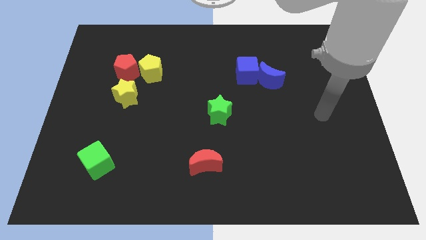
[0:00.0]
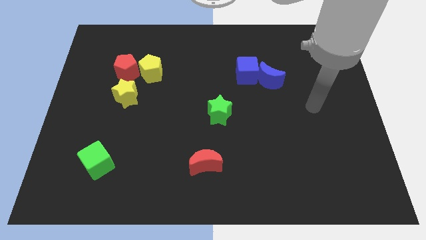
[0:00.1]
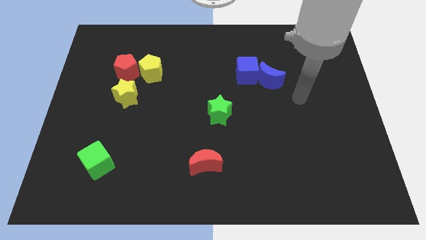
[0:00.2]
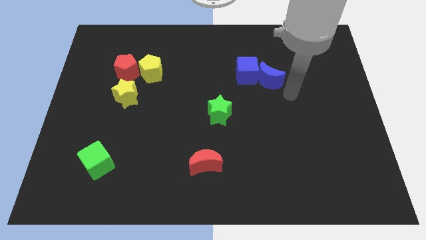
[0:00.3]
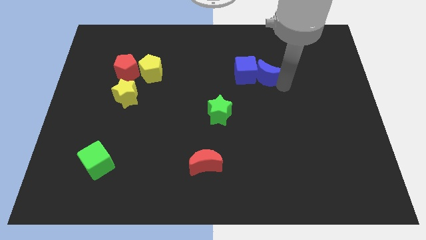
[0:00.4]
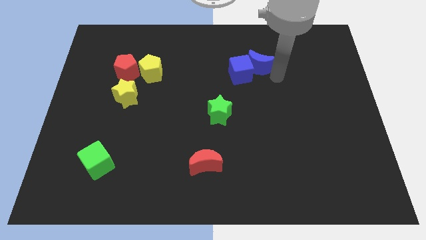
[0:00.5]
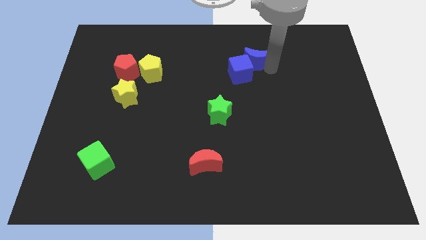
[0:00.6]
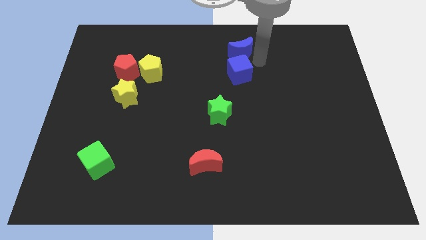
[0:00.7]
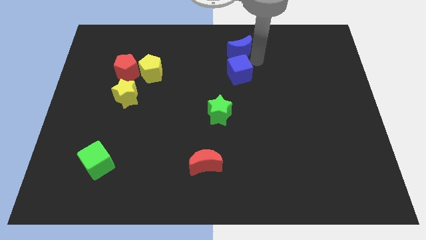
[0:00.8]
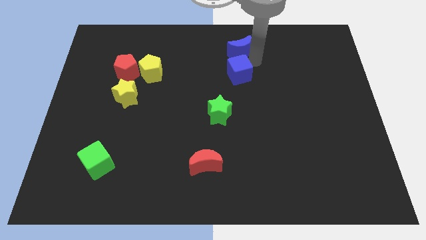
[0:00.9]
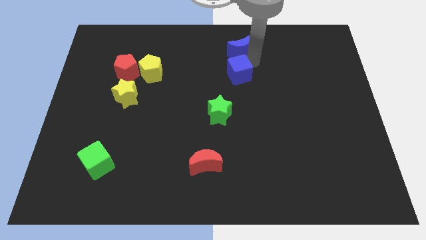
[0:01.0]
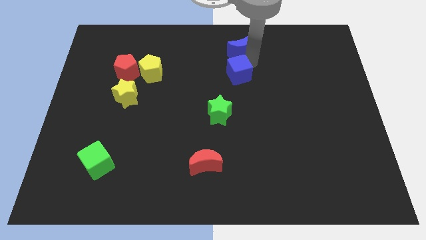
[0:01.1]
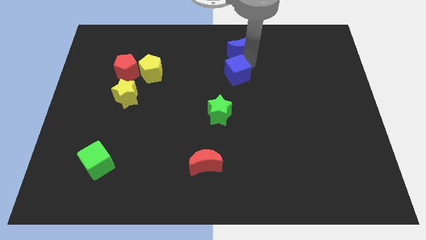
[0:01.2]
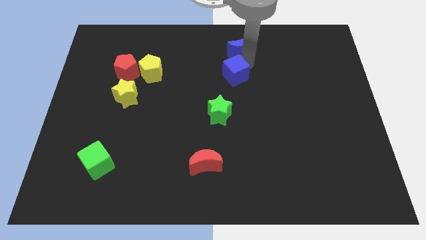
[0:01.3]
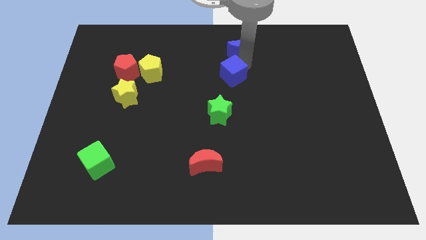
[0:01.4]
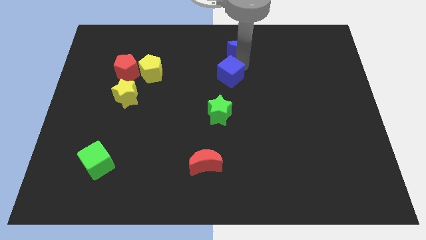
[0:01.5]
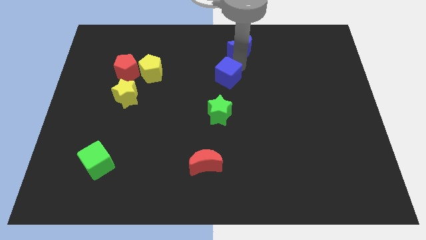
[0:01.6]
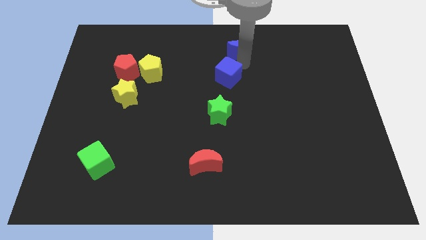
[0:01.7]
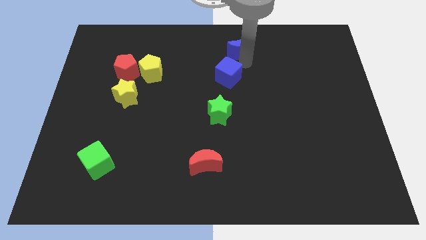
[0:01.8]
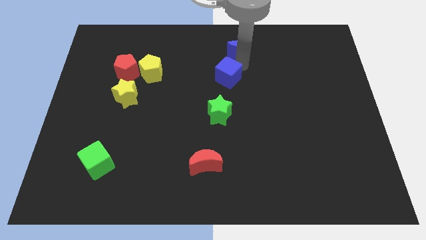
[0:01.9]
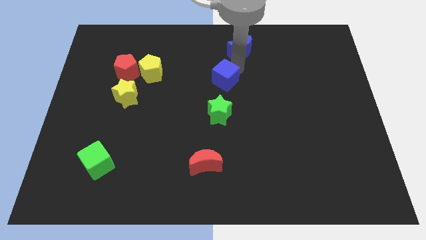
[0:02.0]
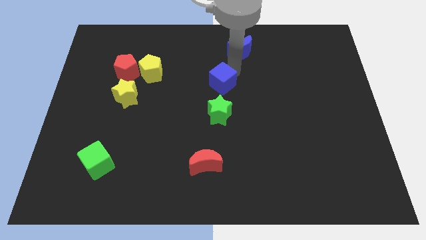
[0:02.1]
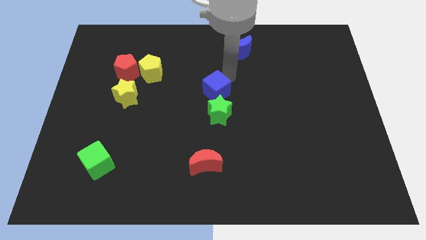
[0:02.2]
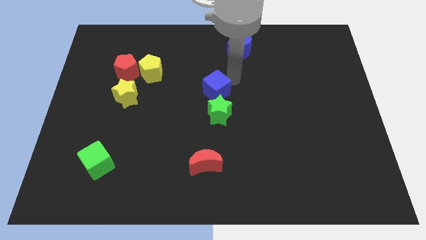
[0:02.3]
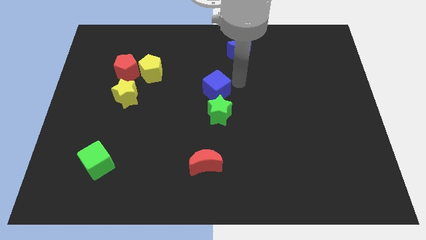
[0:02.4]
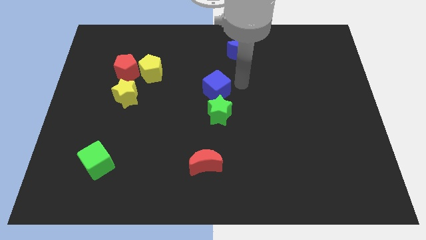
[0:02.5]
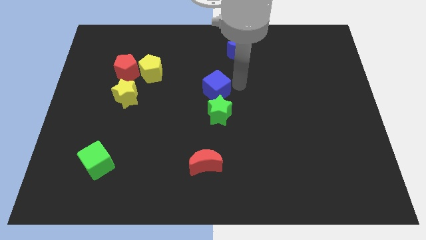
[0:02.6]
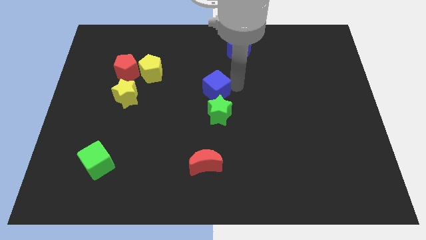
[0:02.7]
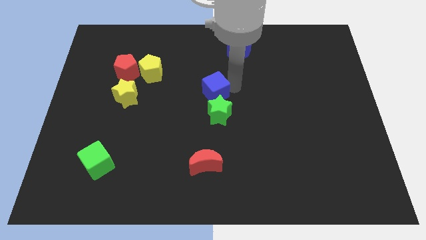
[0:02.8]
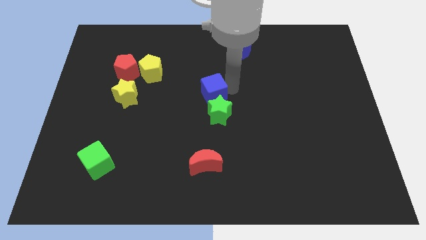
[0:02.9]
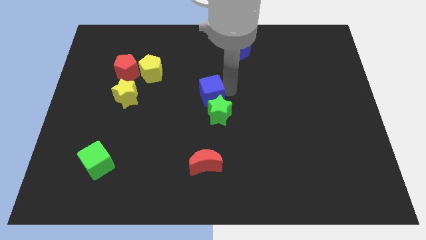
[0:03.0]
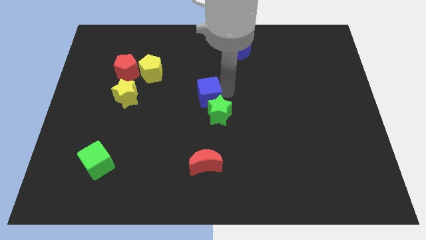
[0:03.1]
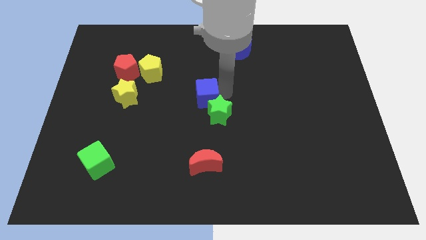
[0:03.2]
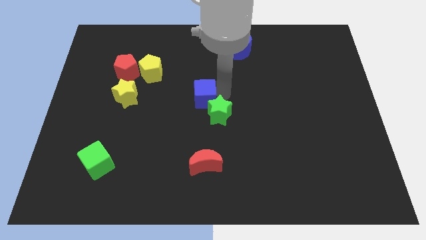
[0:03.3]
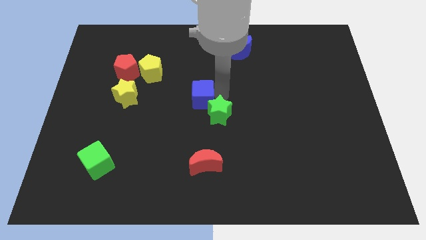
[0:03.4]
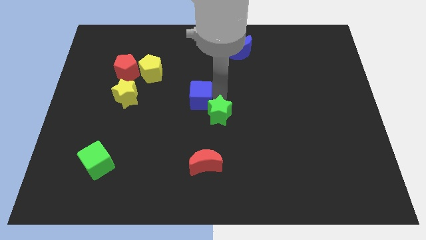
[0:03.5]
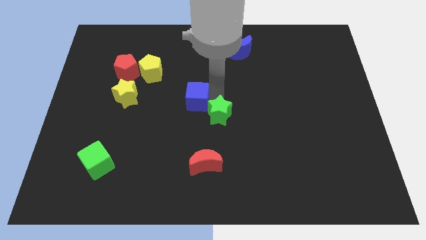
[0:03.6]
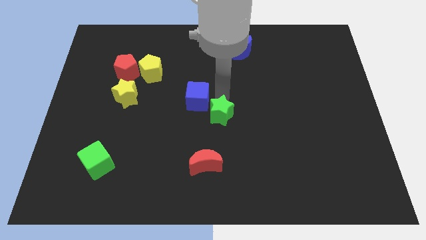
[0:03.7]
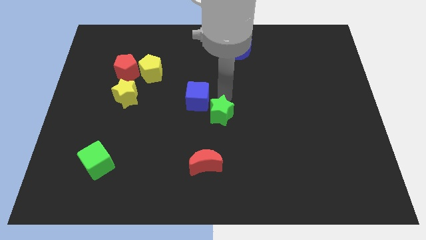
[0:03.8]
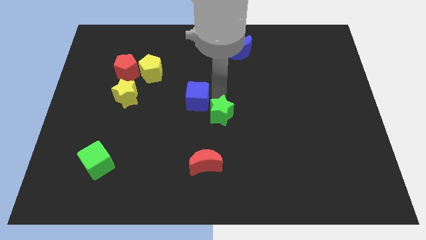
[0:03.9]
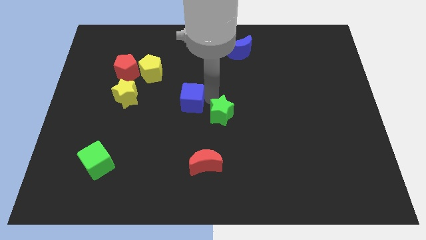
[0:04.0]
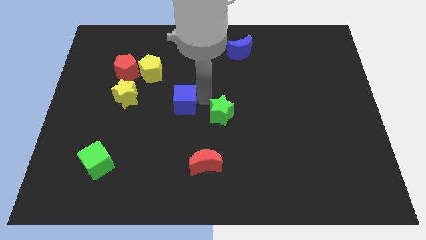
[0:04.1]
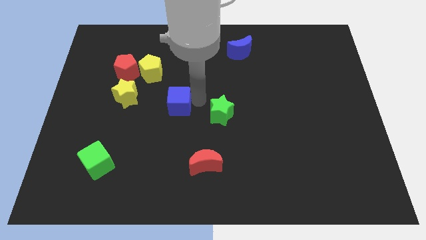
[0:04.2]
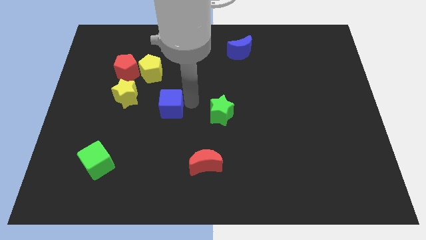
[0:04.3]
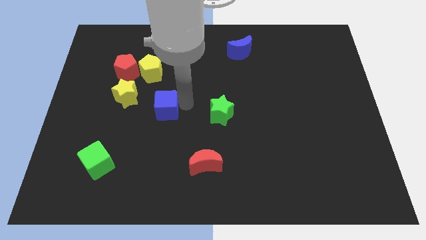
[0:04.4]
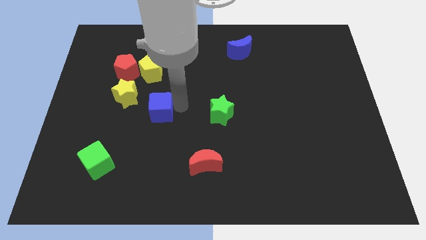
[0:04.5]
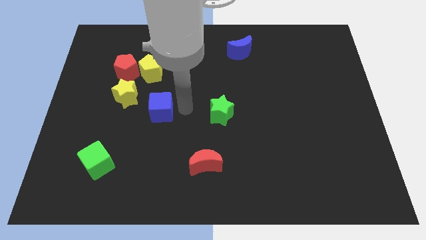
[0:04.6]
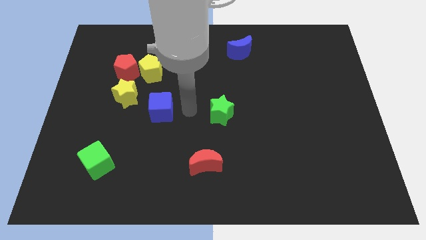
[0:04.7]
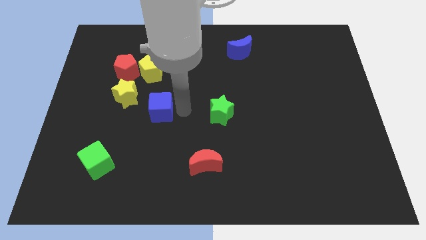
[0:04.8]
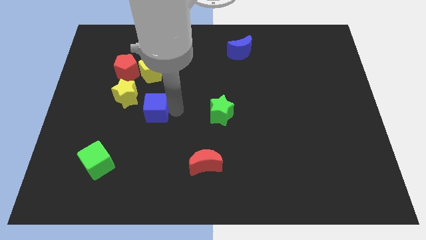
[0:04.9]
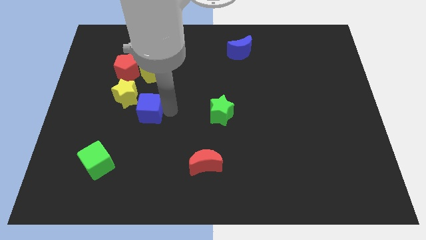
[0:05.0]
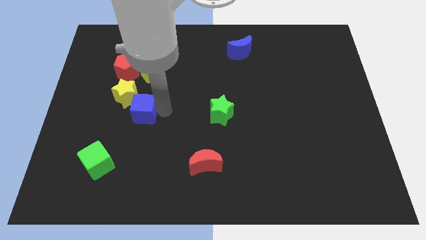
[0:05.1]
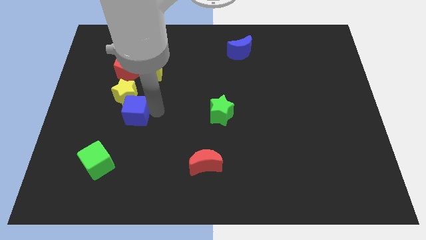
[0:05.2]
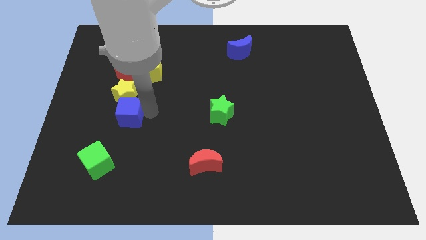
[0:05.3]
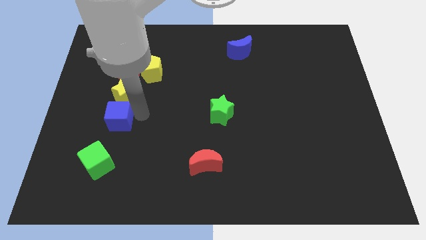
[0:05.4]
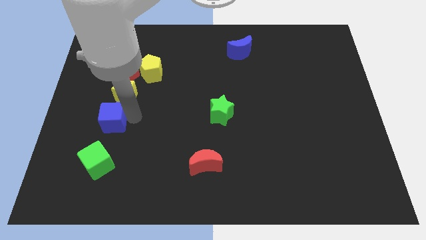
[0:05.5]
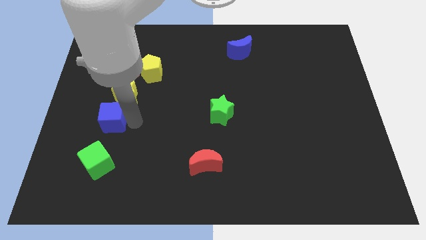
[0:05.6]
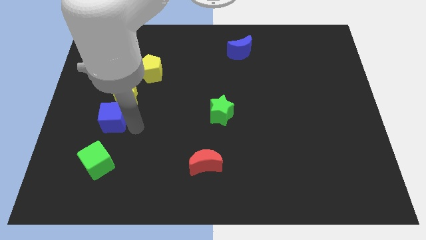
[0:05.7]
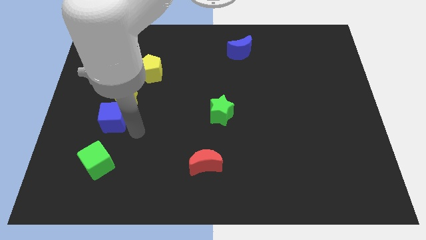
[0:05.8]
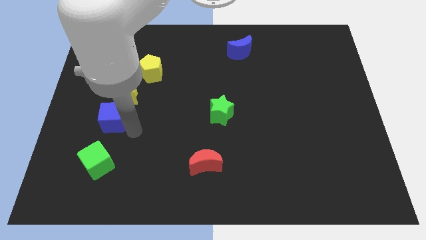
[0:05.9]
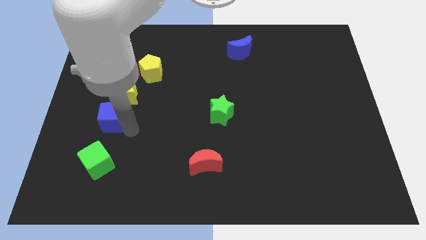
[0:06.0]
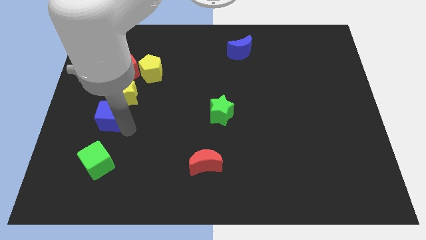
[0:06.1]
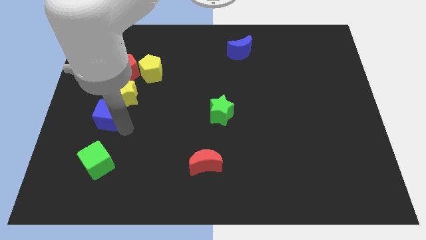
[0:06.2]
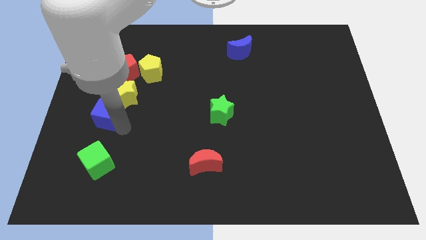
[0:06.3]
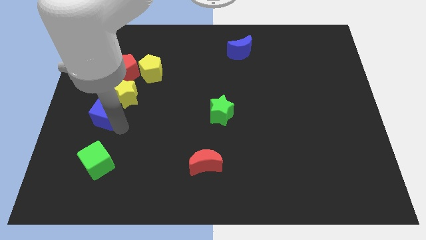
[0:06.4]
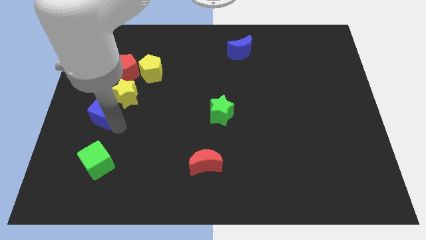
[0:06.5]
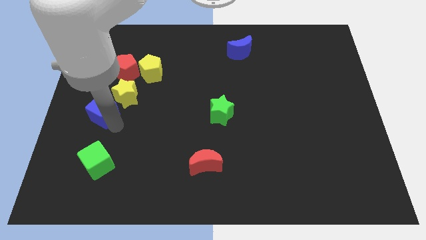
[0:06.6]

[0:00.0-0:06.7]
slide the blue cube to the left side of the board
